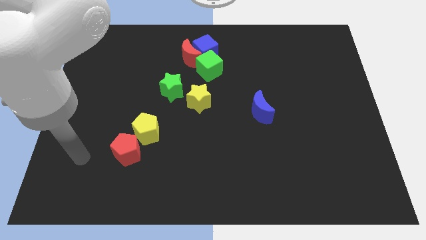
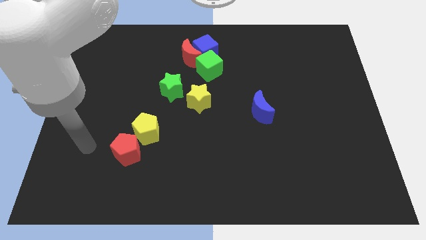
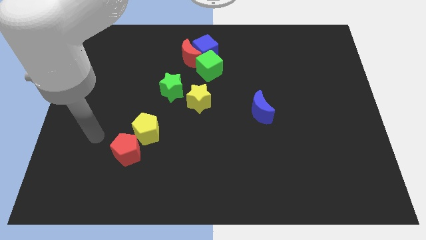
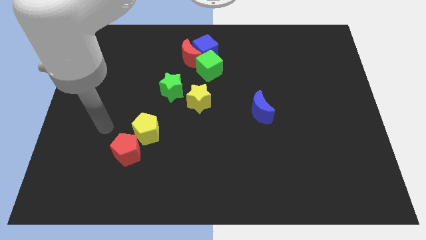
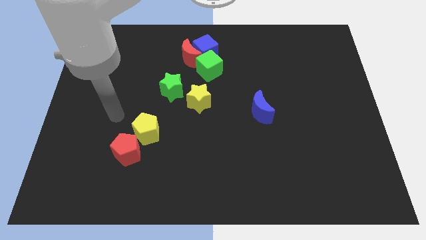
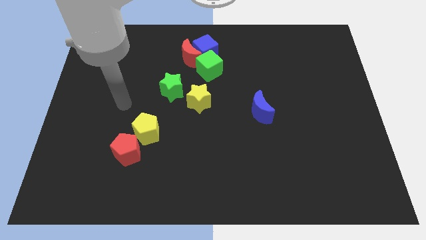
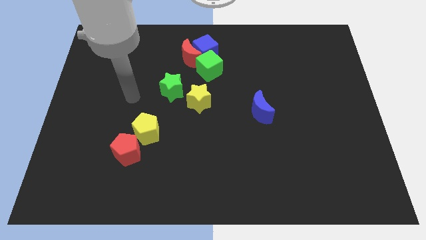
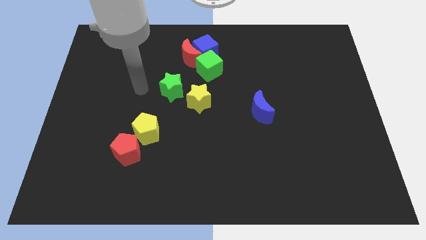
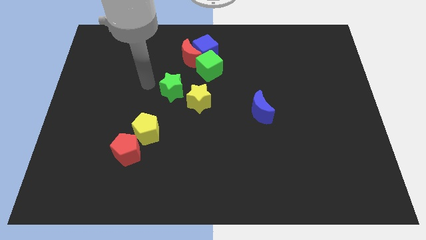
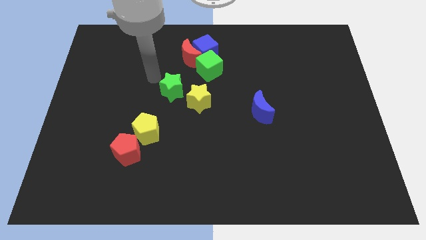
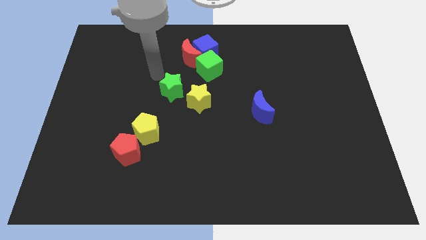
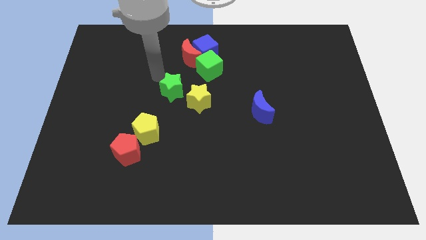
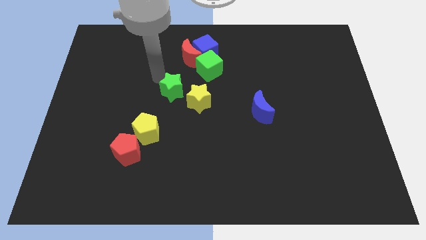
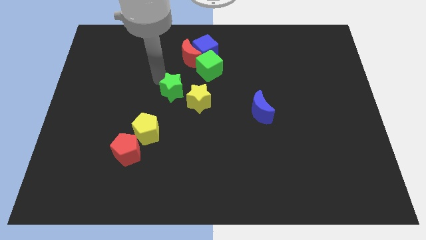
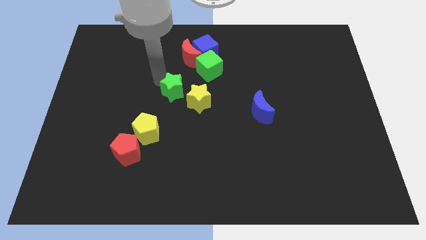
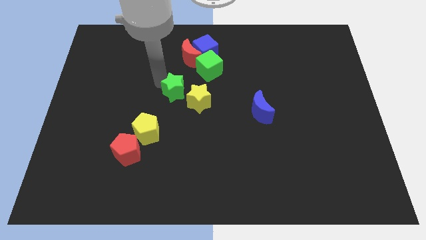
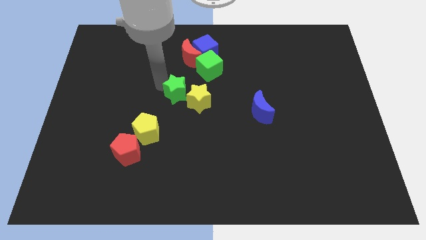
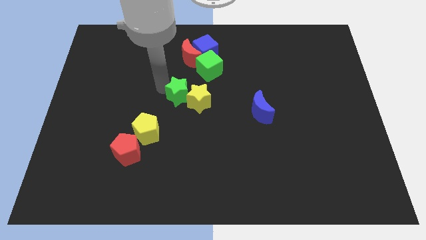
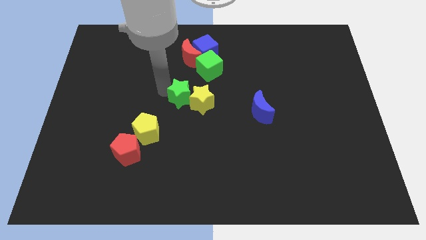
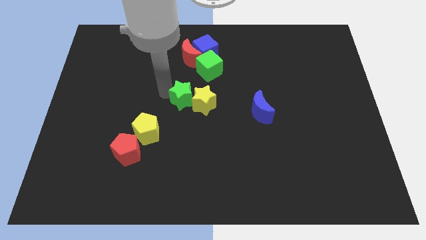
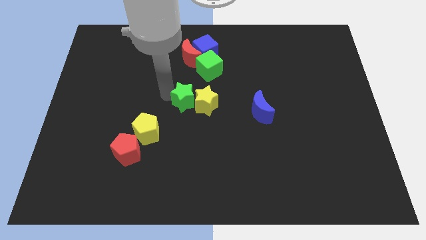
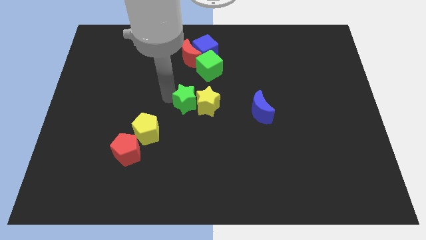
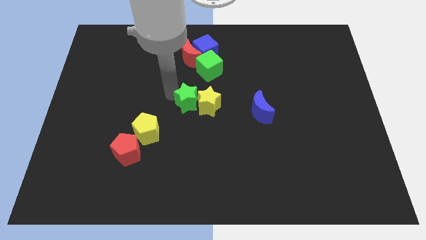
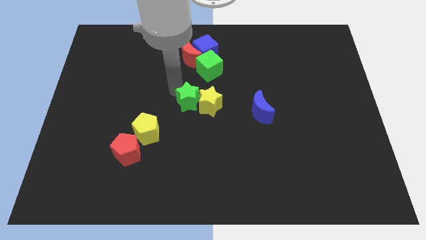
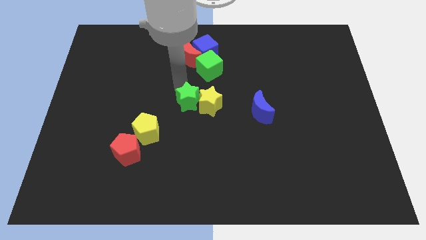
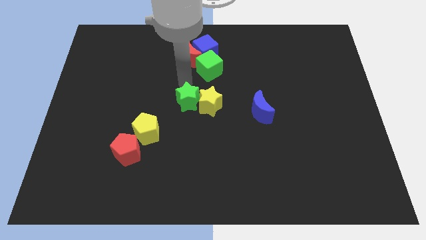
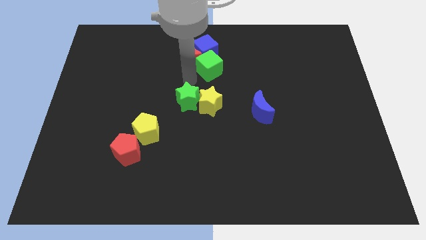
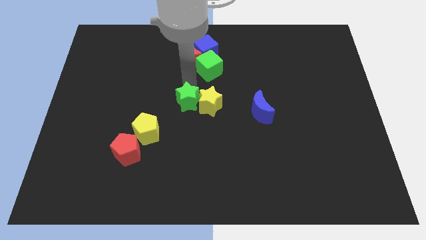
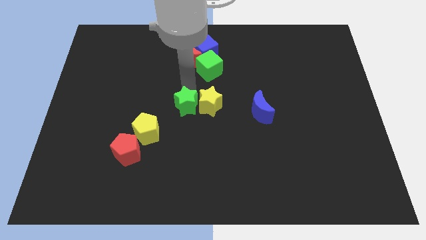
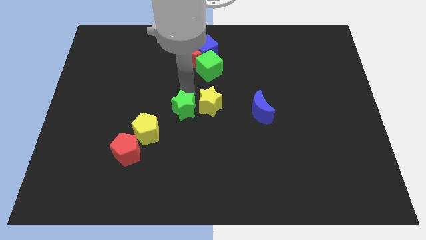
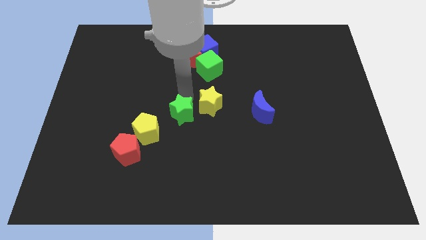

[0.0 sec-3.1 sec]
move the green star a bit diagonally downwards and right

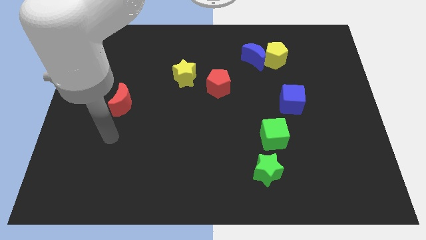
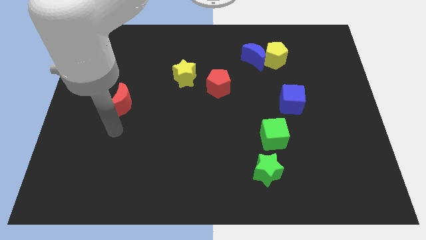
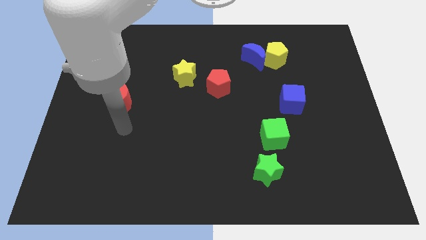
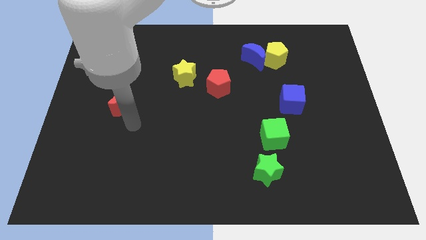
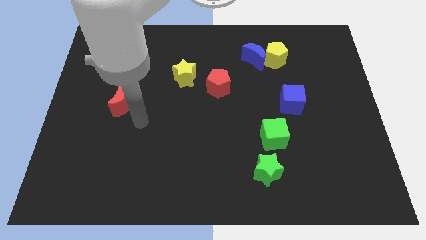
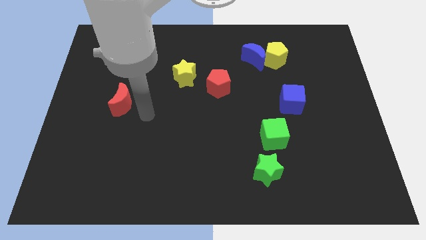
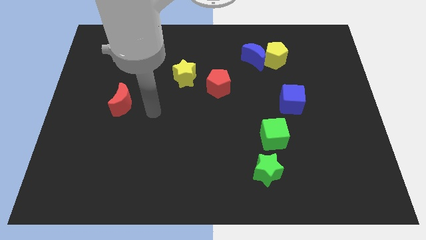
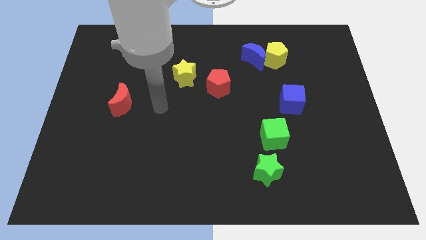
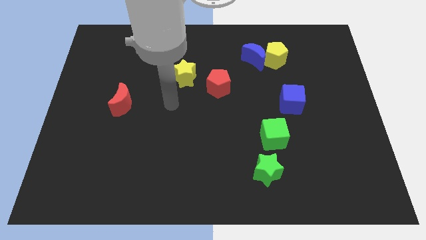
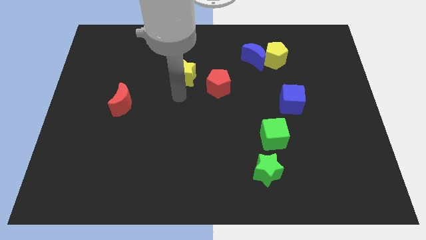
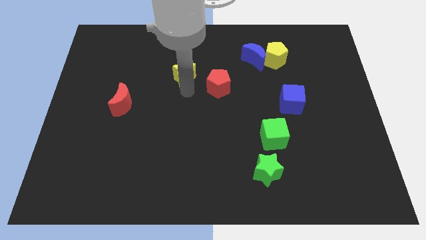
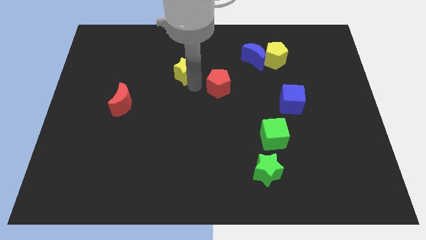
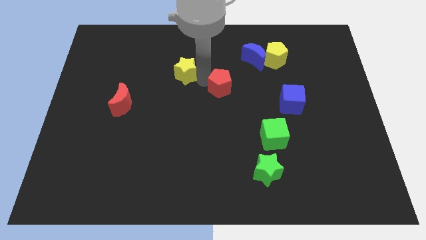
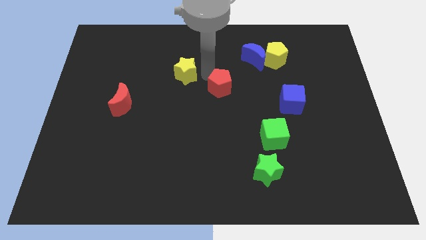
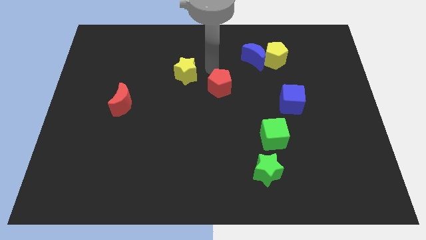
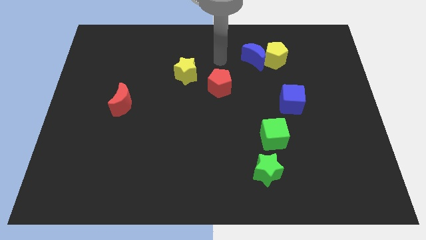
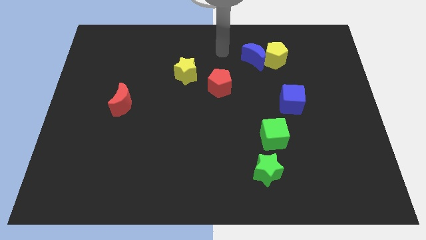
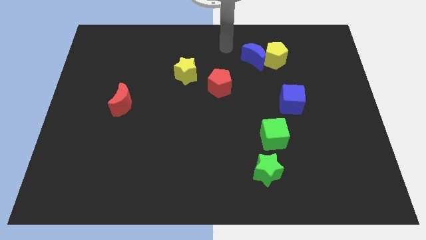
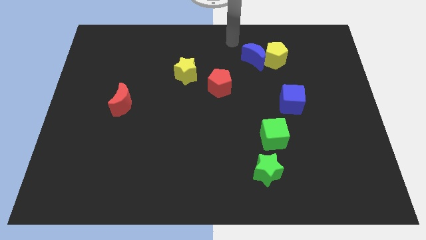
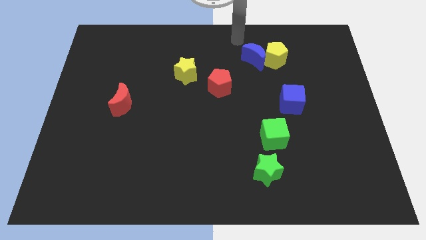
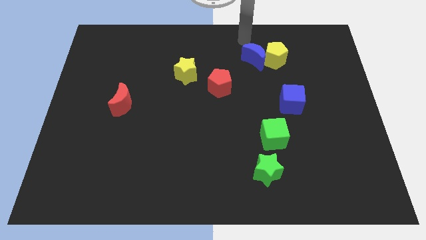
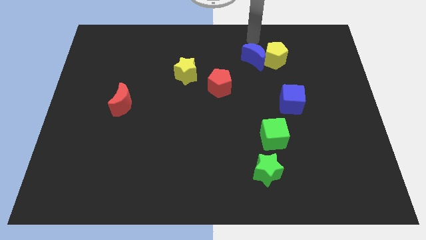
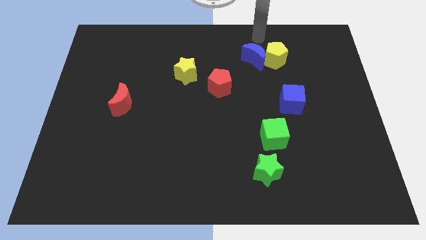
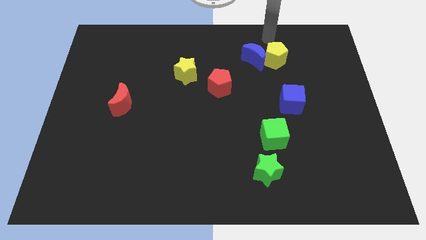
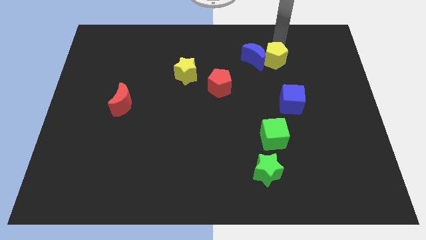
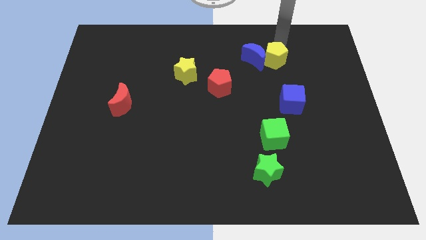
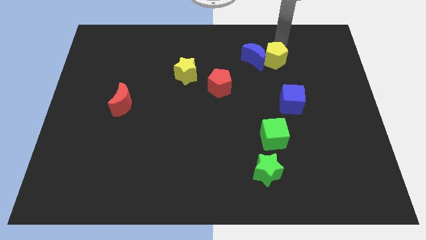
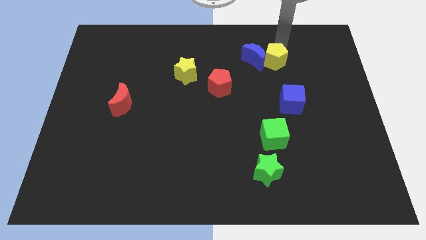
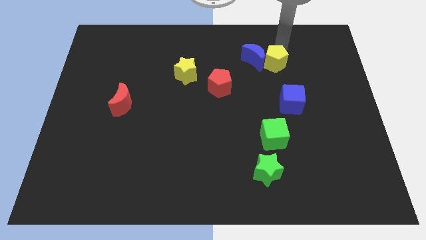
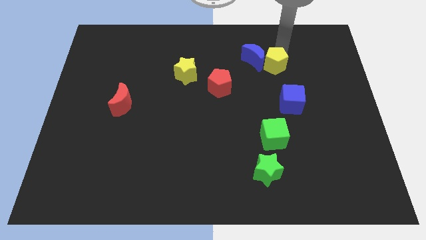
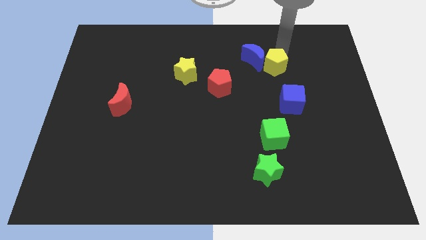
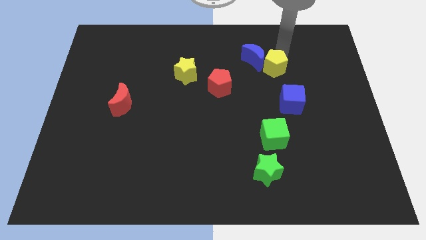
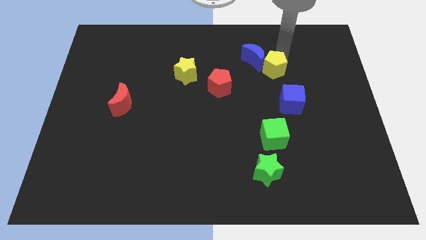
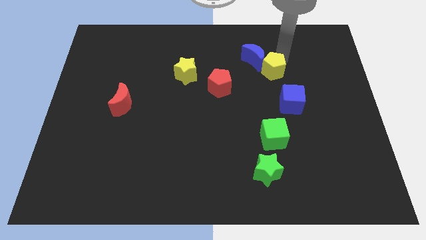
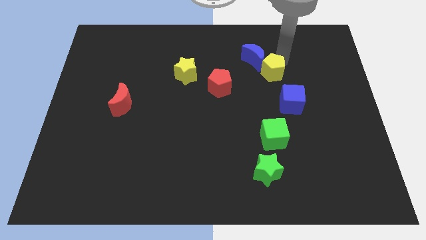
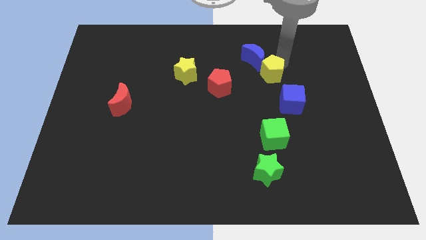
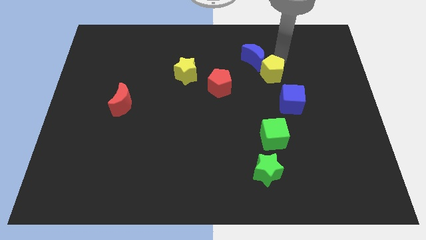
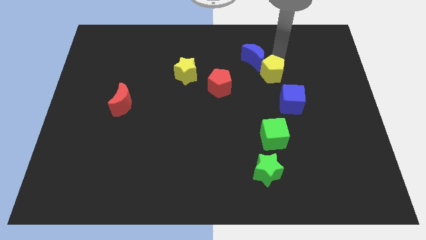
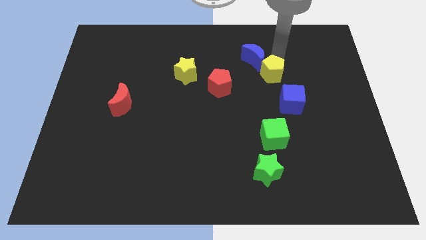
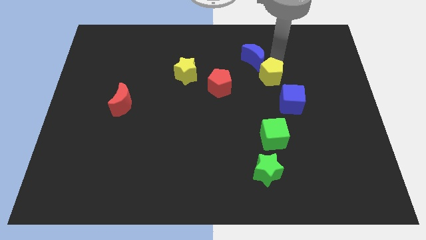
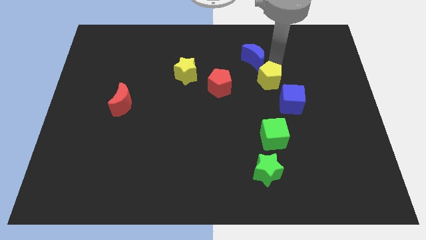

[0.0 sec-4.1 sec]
slide the yellow pentagon down a little

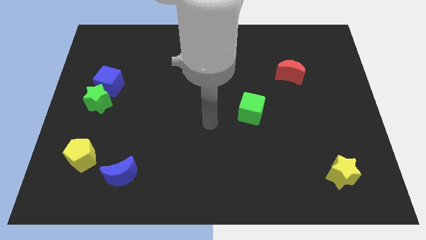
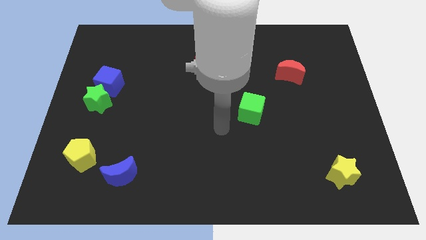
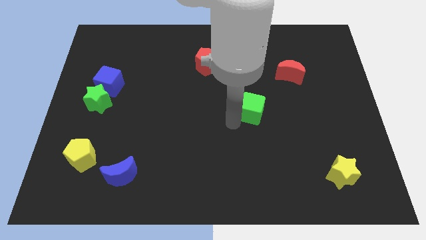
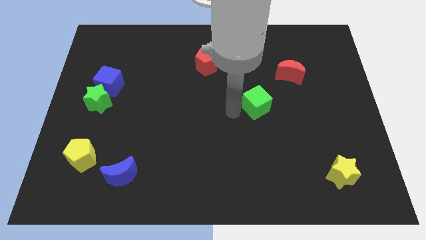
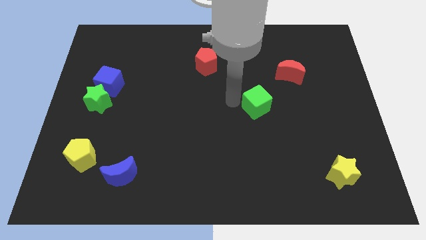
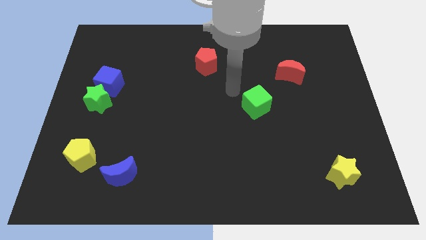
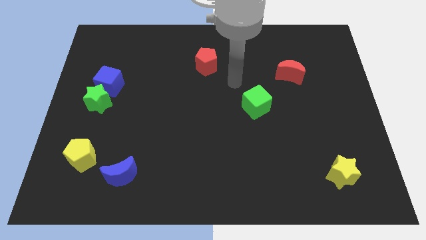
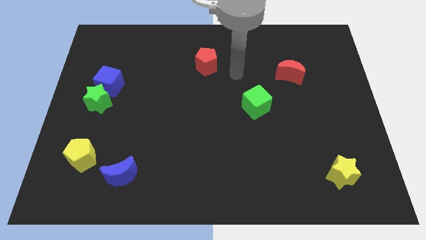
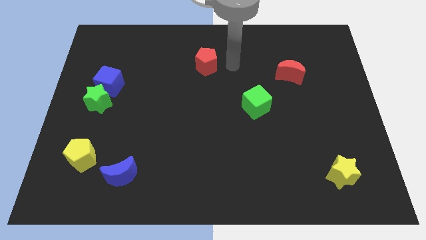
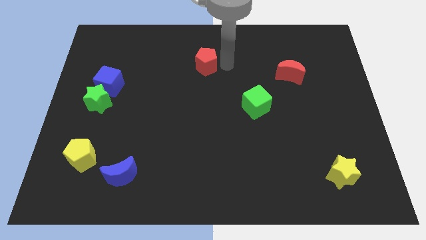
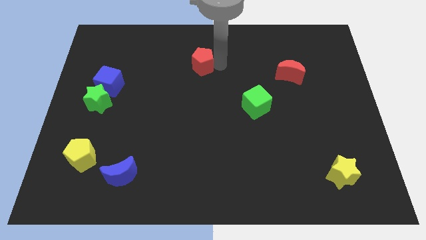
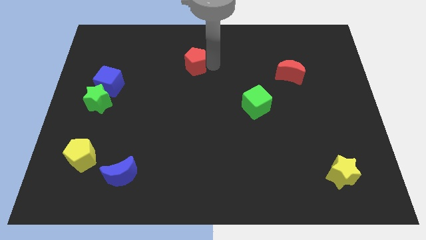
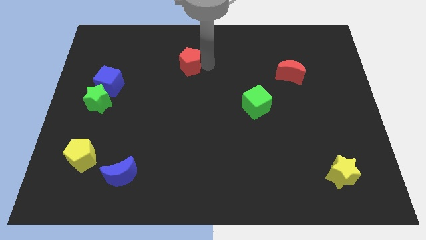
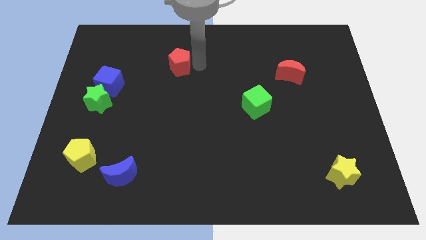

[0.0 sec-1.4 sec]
move the red pentagon slightly to the left
